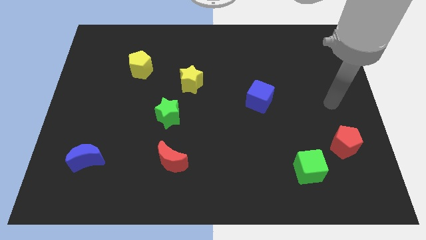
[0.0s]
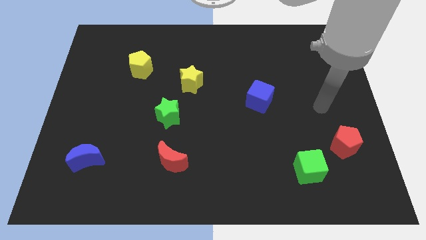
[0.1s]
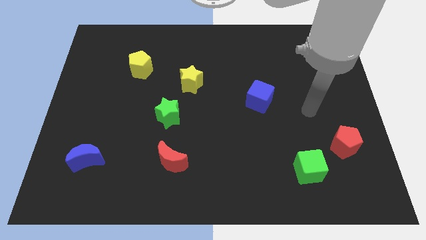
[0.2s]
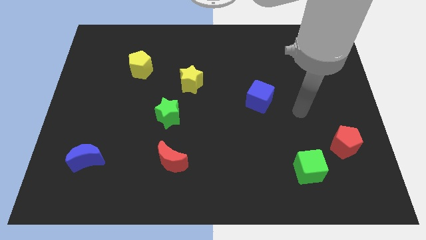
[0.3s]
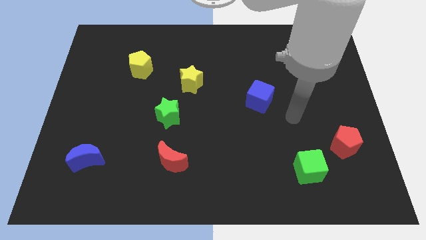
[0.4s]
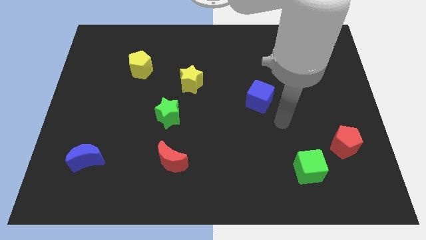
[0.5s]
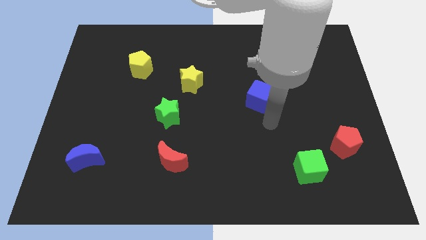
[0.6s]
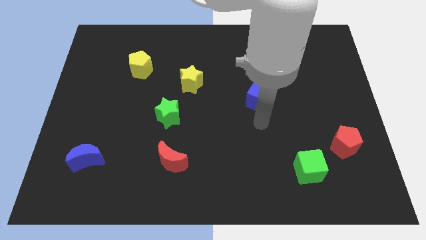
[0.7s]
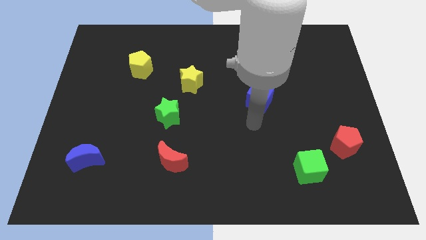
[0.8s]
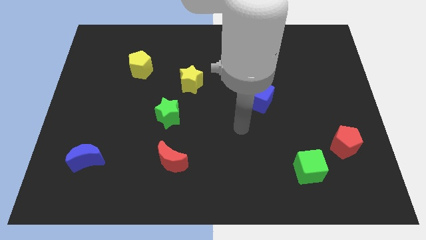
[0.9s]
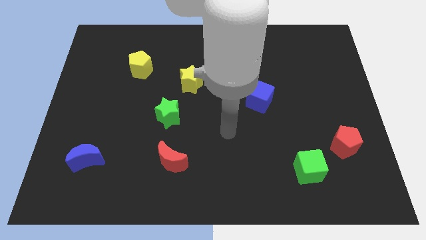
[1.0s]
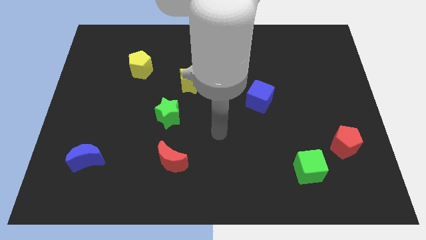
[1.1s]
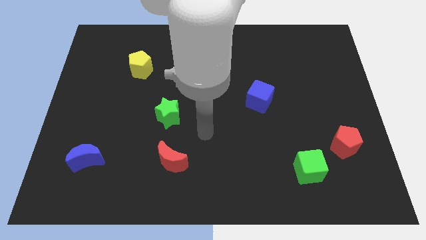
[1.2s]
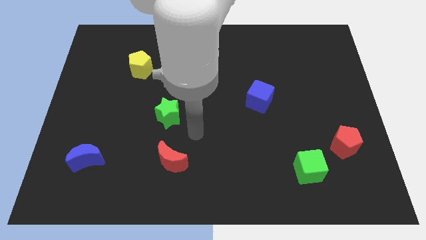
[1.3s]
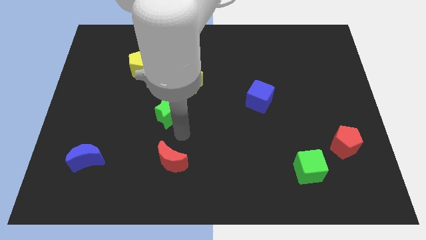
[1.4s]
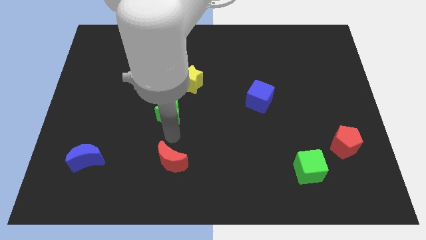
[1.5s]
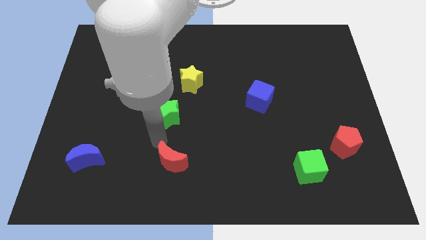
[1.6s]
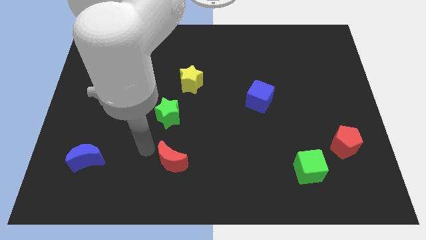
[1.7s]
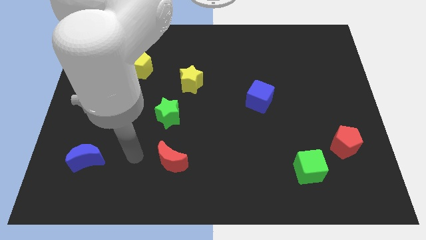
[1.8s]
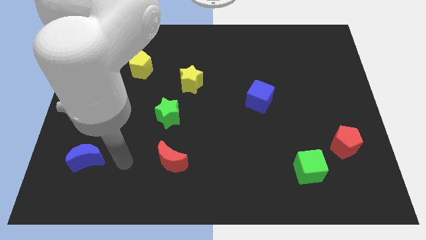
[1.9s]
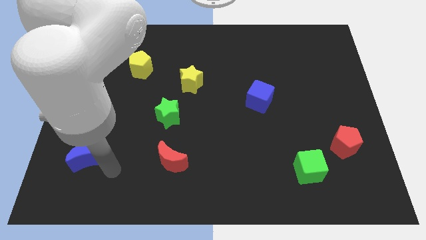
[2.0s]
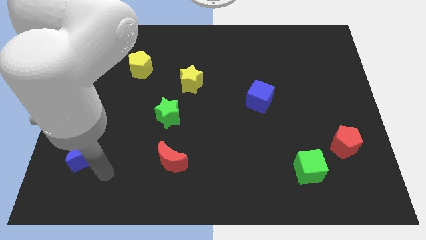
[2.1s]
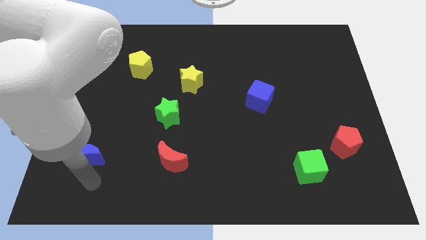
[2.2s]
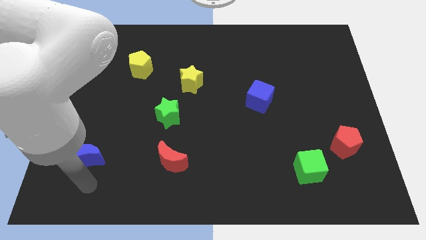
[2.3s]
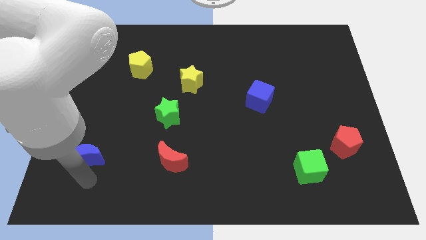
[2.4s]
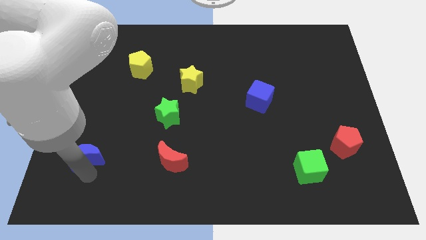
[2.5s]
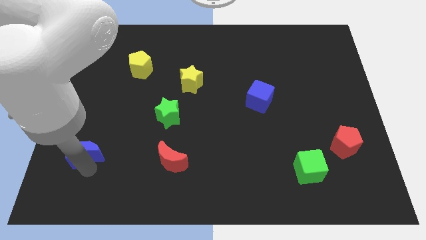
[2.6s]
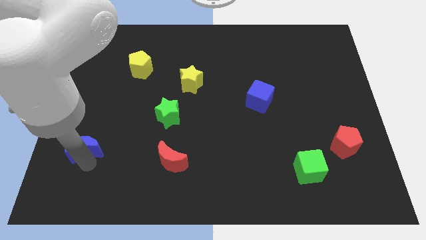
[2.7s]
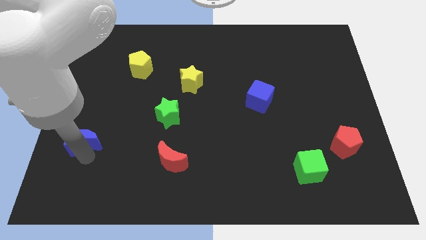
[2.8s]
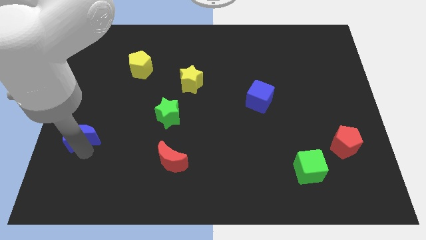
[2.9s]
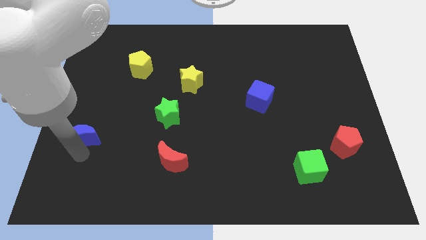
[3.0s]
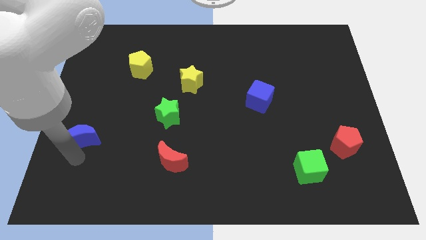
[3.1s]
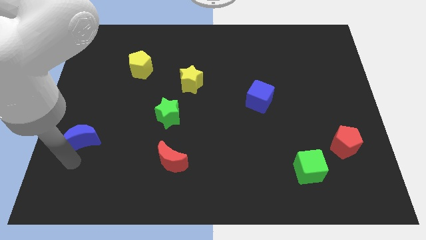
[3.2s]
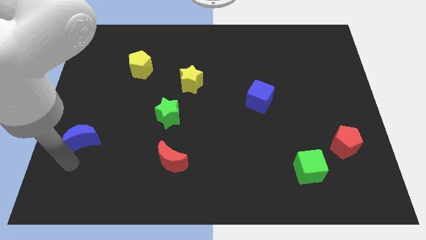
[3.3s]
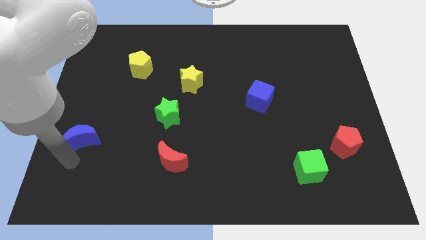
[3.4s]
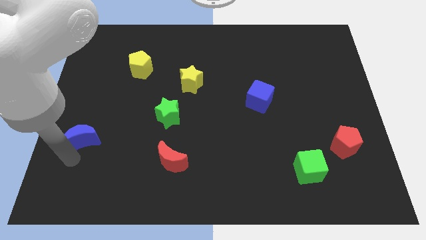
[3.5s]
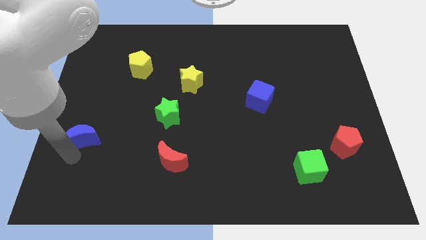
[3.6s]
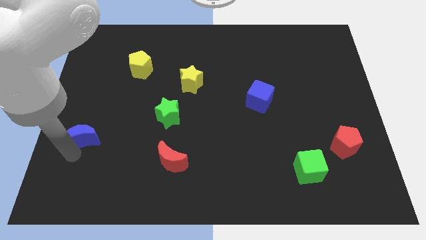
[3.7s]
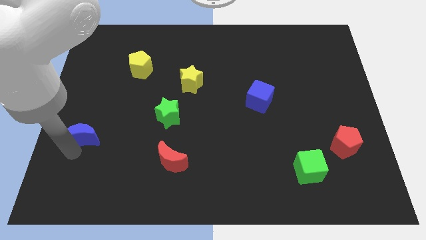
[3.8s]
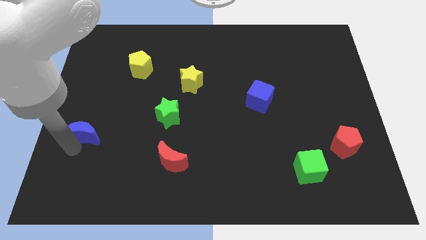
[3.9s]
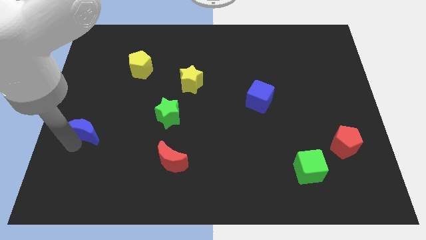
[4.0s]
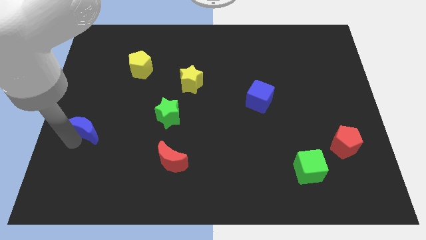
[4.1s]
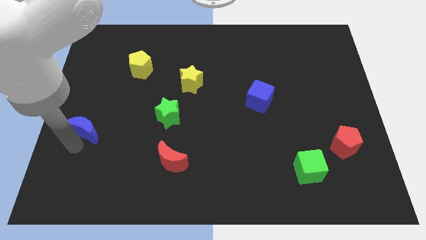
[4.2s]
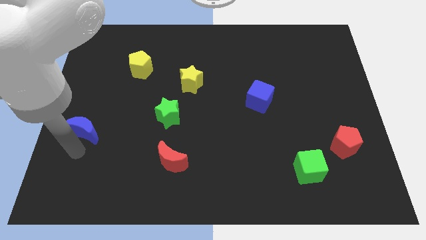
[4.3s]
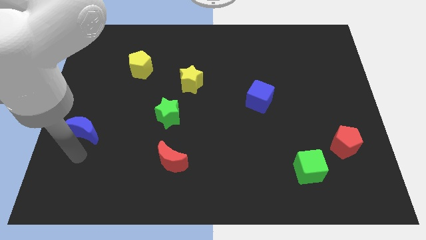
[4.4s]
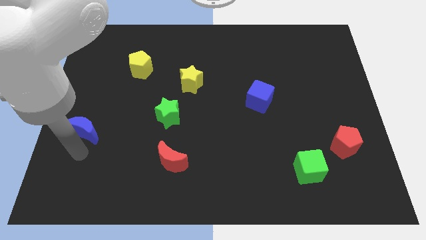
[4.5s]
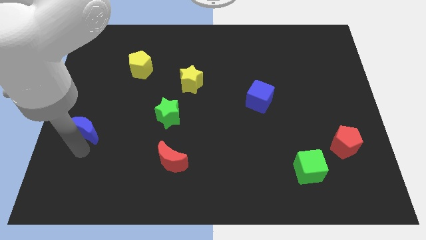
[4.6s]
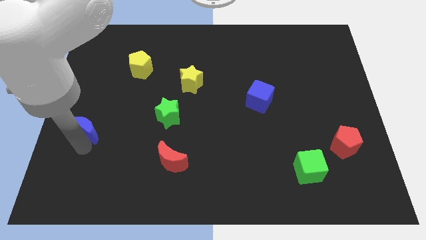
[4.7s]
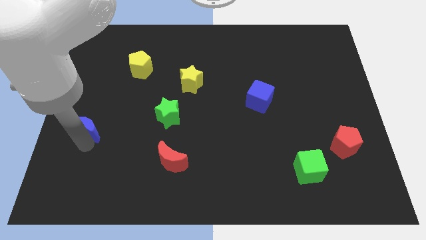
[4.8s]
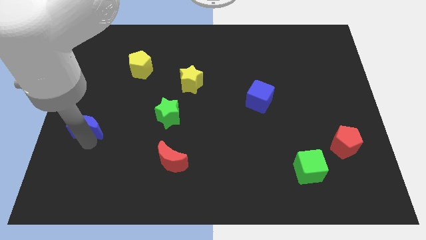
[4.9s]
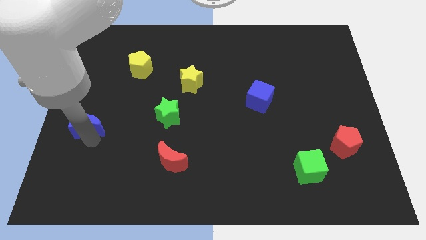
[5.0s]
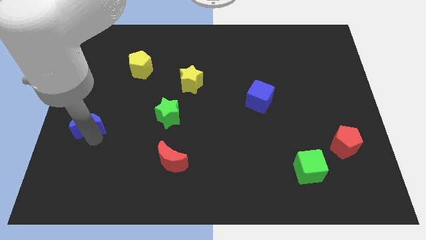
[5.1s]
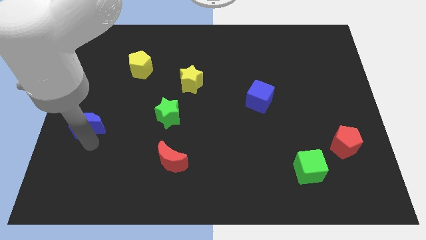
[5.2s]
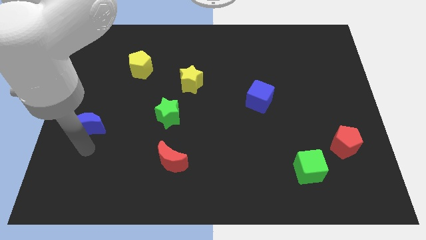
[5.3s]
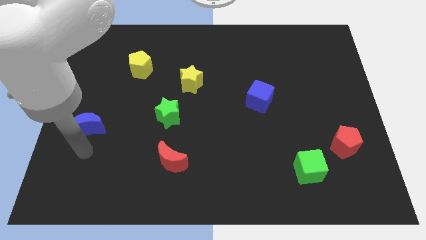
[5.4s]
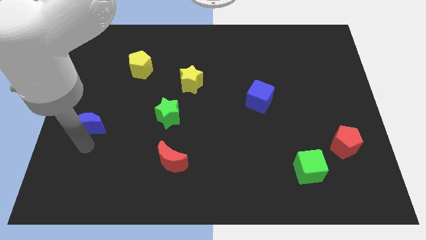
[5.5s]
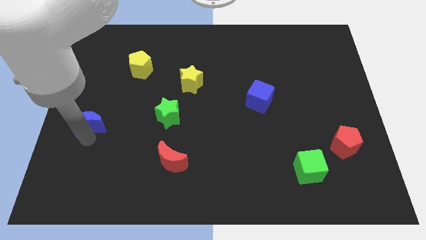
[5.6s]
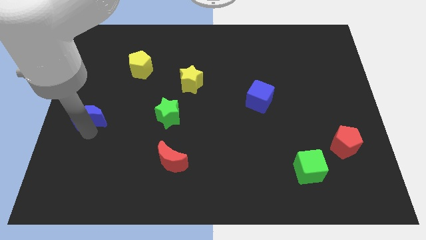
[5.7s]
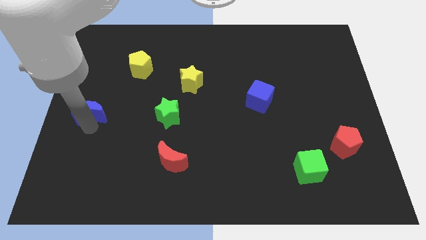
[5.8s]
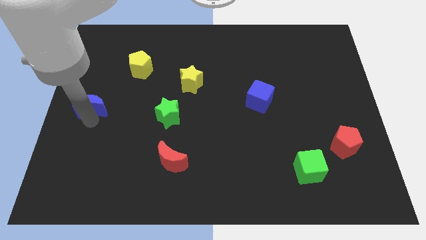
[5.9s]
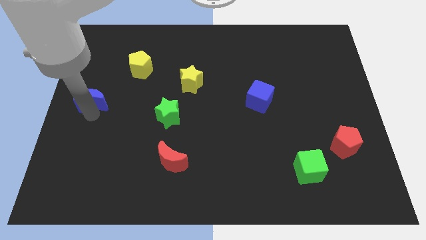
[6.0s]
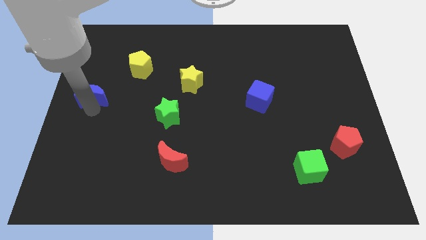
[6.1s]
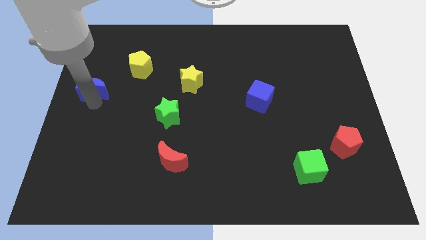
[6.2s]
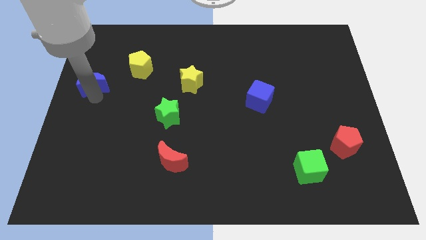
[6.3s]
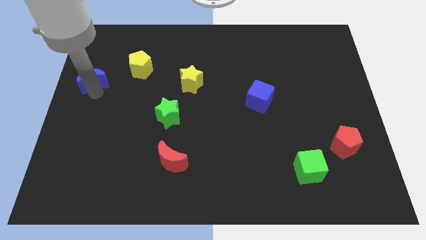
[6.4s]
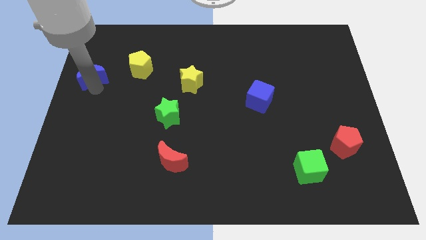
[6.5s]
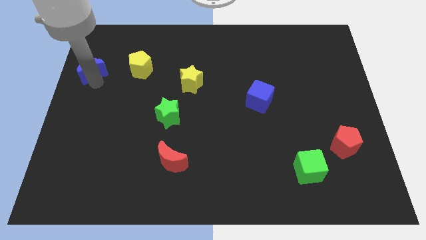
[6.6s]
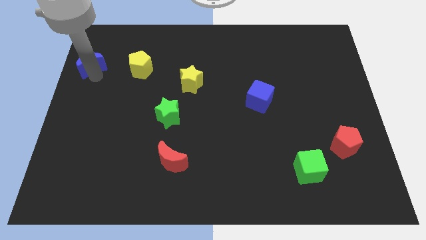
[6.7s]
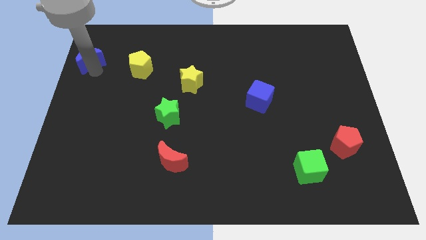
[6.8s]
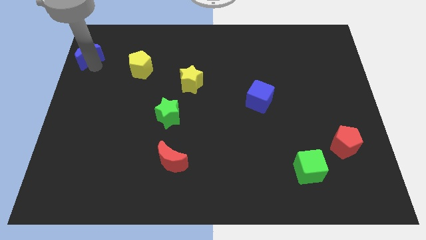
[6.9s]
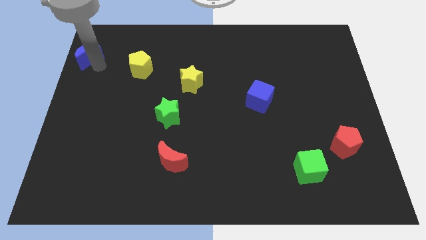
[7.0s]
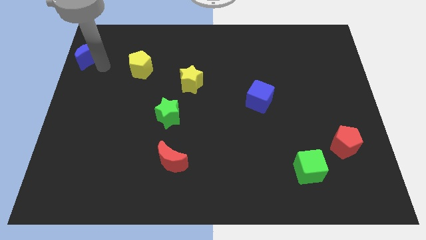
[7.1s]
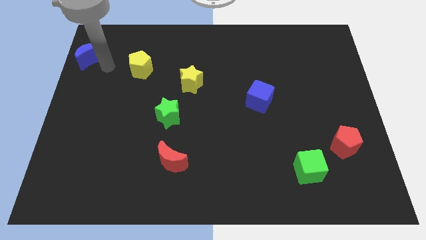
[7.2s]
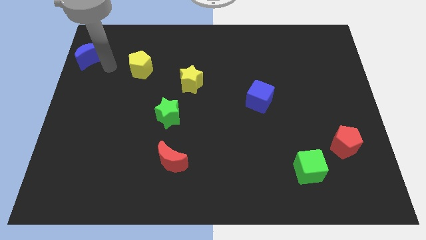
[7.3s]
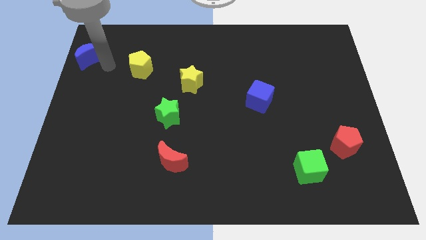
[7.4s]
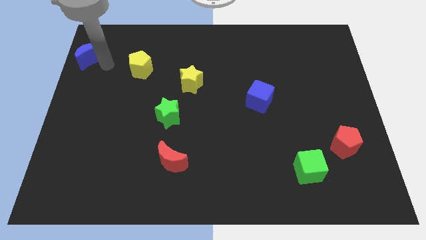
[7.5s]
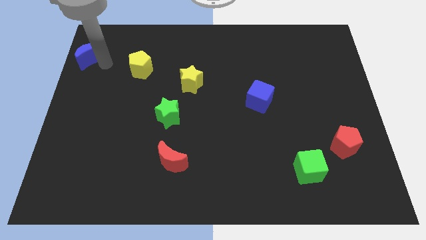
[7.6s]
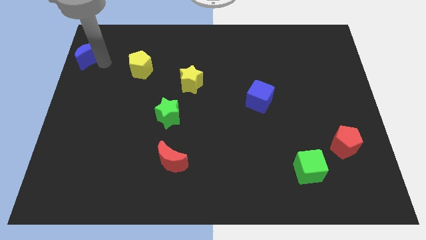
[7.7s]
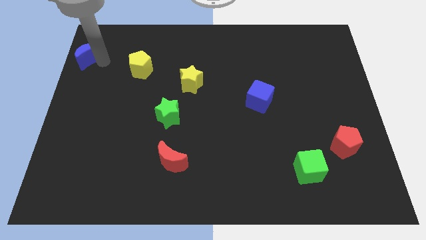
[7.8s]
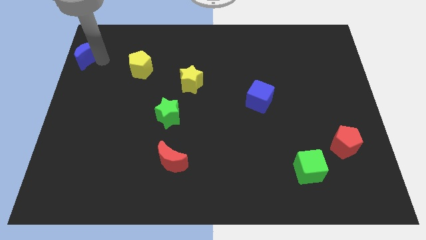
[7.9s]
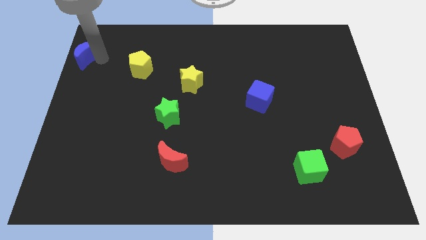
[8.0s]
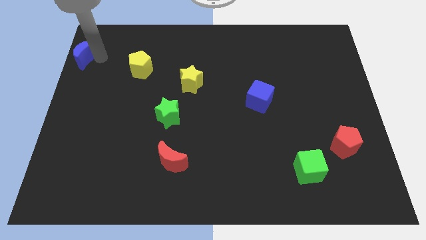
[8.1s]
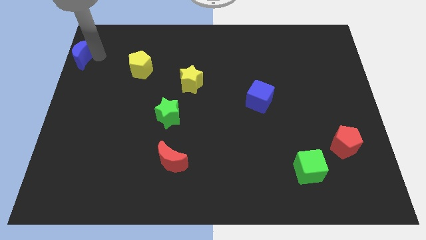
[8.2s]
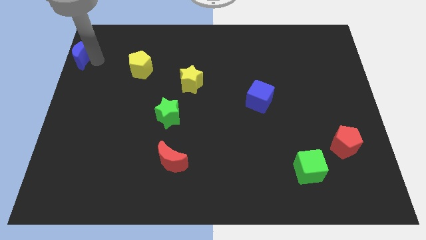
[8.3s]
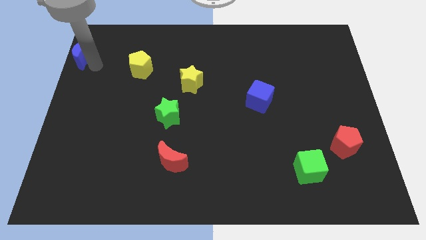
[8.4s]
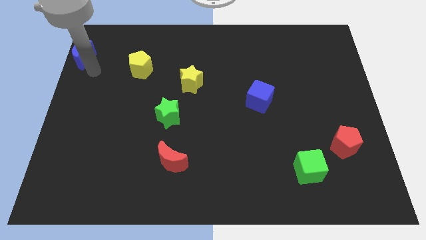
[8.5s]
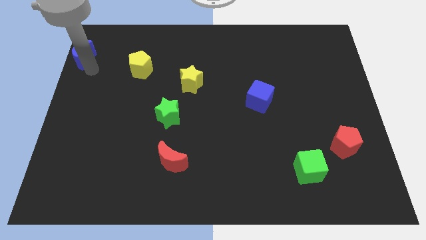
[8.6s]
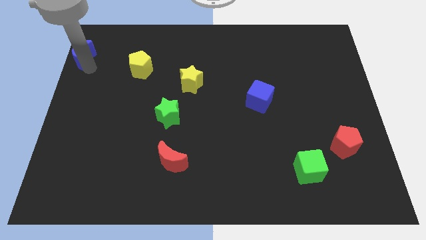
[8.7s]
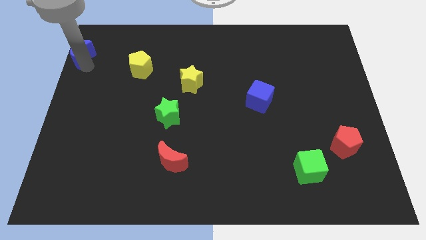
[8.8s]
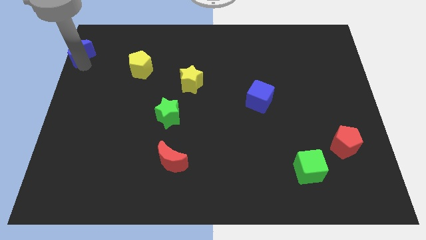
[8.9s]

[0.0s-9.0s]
slide the blue moon to the top left of the board
